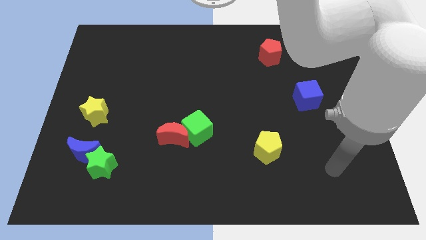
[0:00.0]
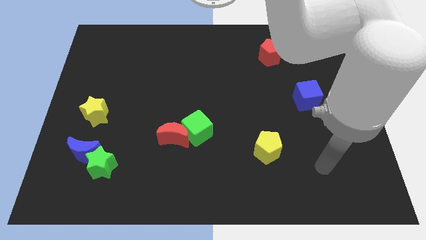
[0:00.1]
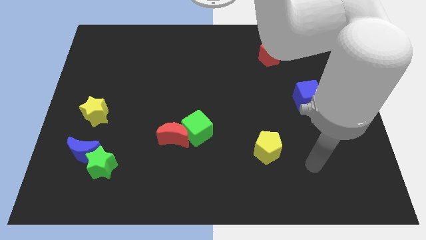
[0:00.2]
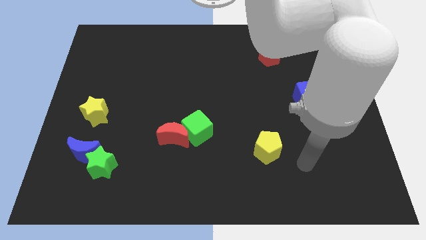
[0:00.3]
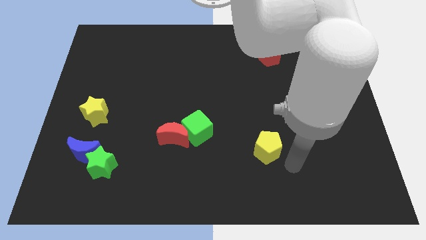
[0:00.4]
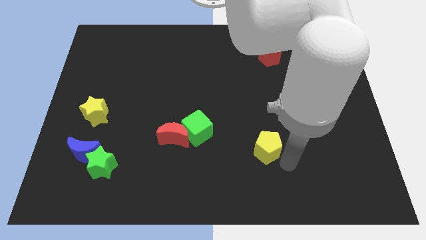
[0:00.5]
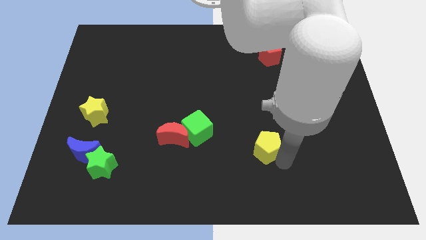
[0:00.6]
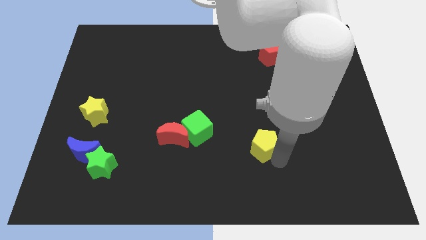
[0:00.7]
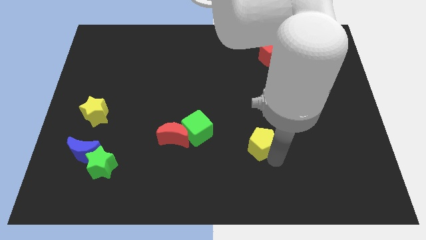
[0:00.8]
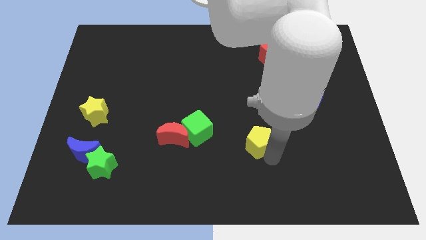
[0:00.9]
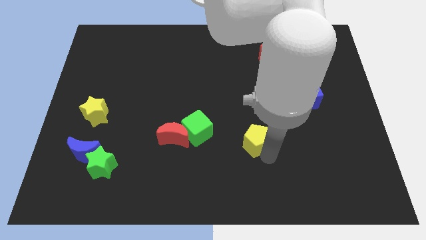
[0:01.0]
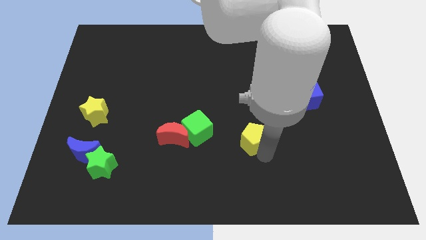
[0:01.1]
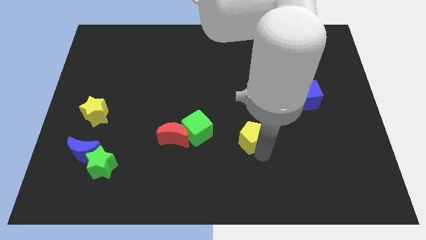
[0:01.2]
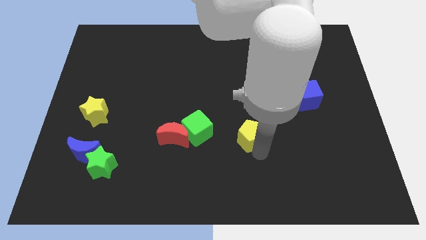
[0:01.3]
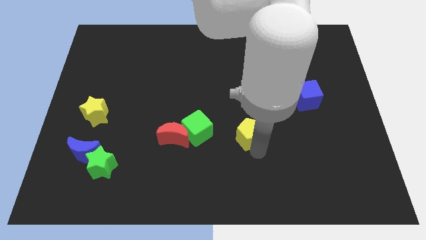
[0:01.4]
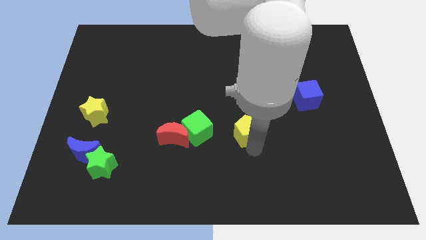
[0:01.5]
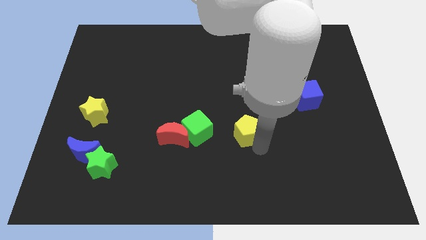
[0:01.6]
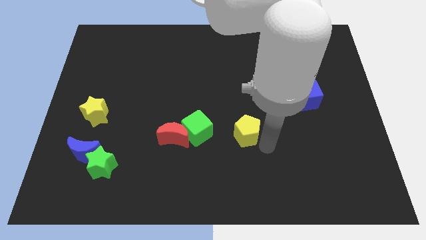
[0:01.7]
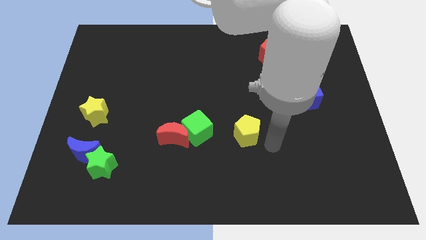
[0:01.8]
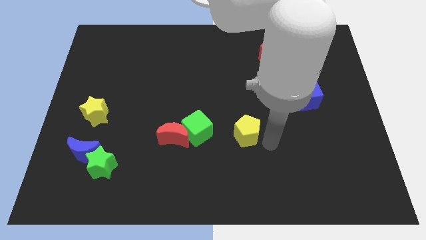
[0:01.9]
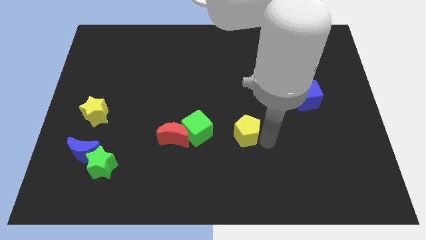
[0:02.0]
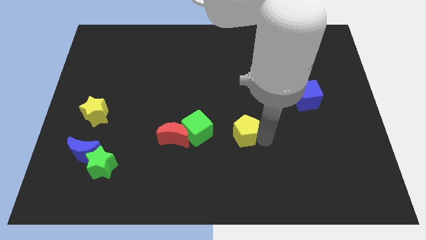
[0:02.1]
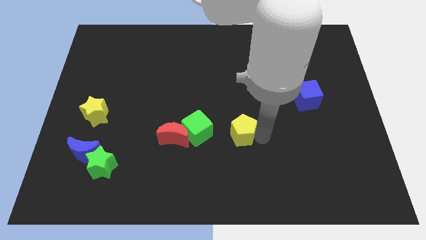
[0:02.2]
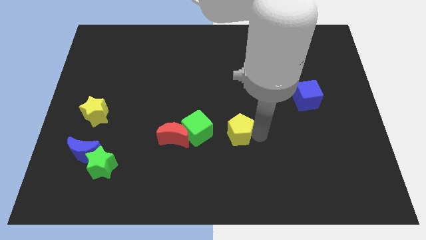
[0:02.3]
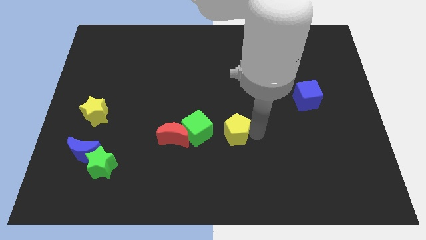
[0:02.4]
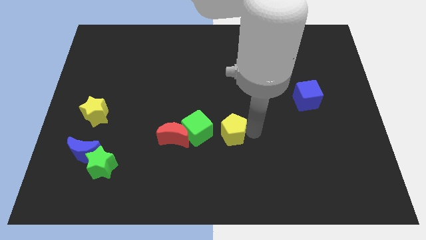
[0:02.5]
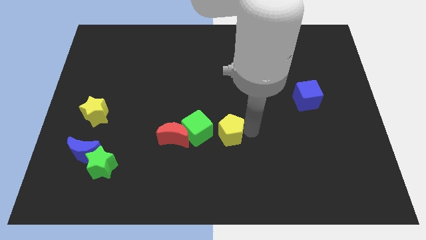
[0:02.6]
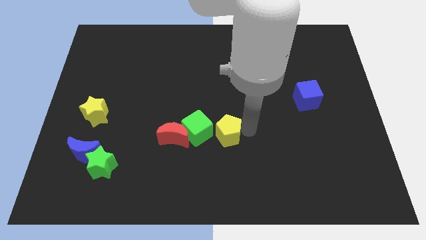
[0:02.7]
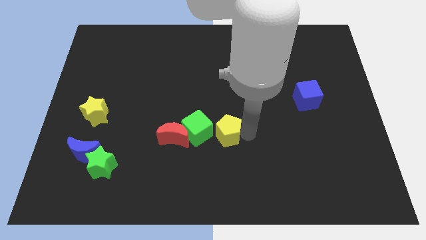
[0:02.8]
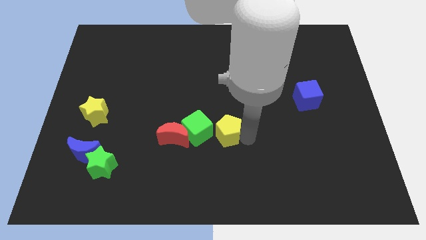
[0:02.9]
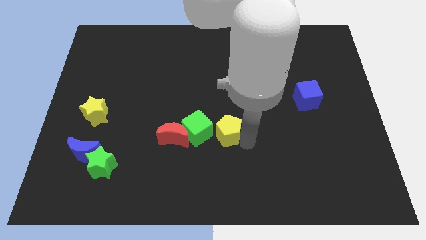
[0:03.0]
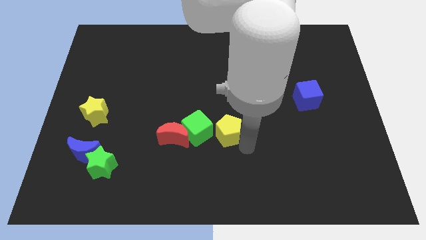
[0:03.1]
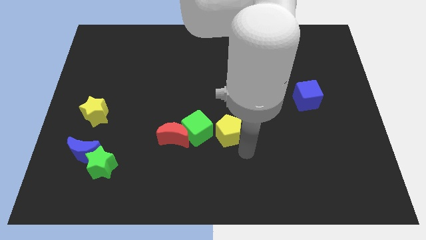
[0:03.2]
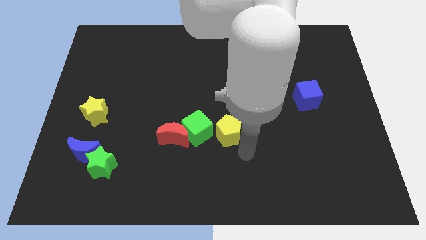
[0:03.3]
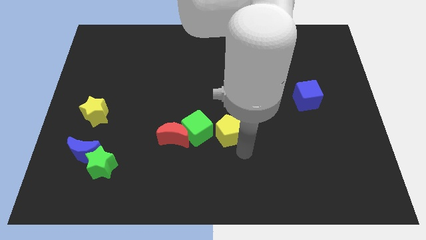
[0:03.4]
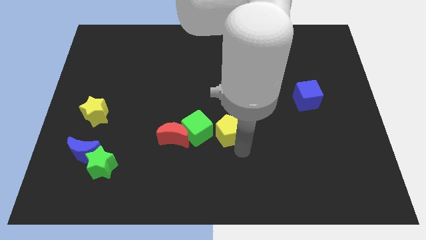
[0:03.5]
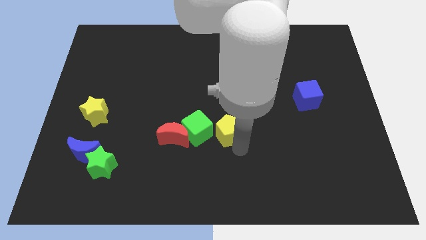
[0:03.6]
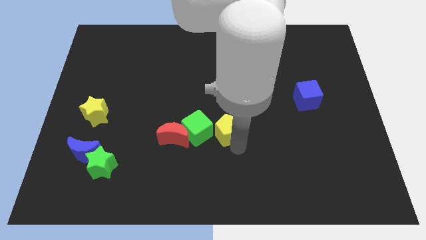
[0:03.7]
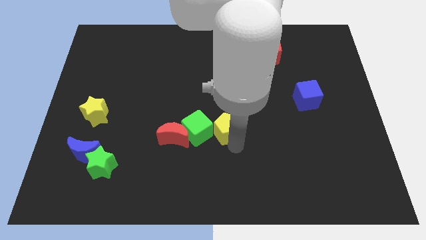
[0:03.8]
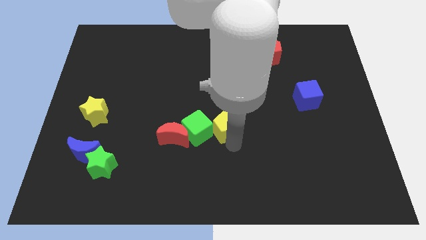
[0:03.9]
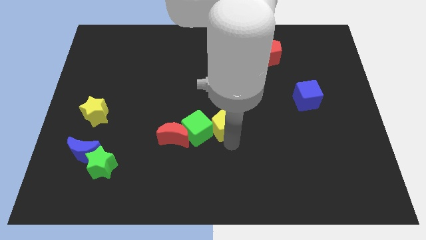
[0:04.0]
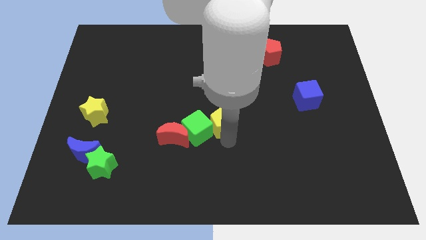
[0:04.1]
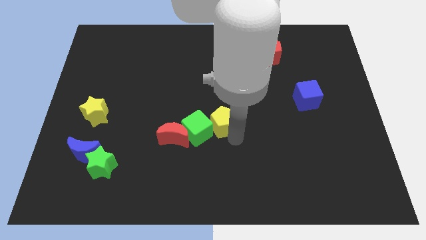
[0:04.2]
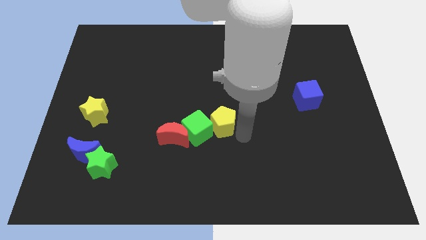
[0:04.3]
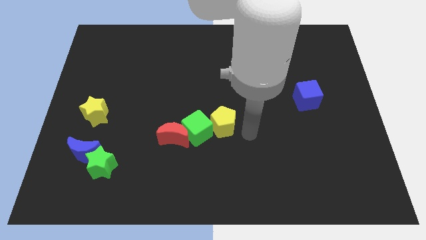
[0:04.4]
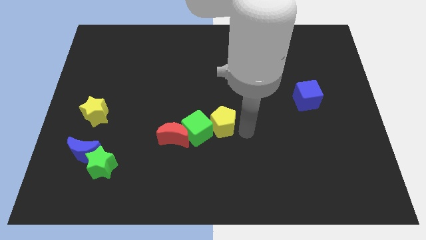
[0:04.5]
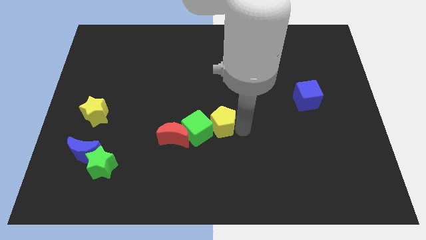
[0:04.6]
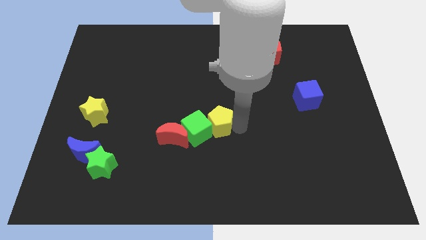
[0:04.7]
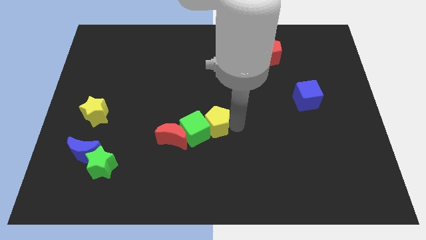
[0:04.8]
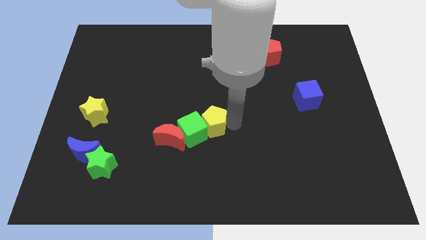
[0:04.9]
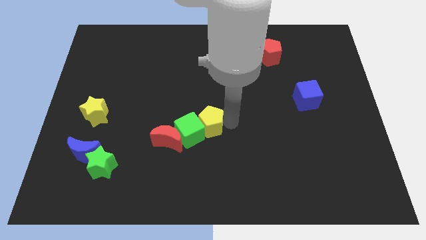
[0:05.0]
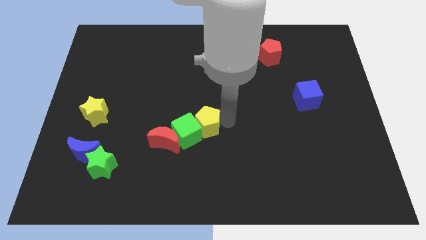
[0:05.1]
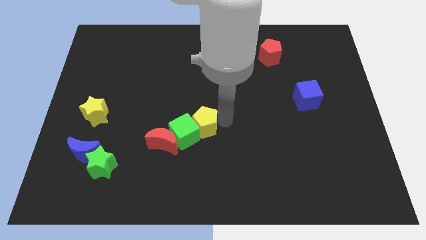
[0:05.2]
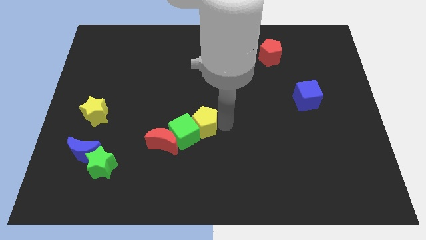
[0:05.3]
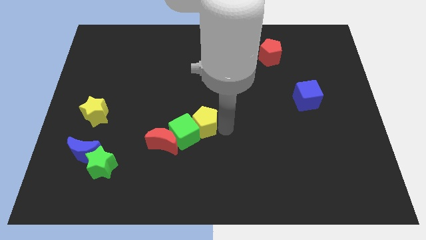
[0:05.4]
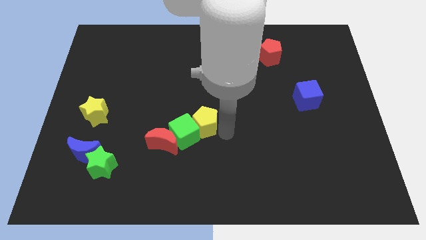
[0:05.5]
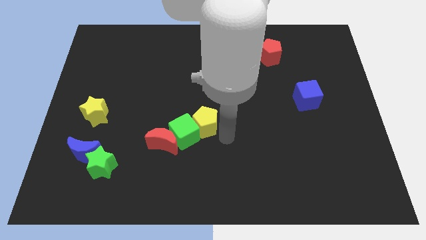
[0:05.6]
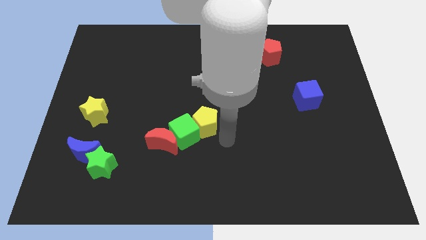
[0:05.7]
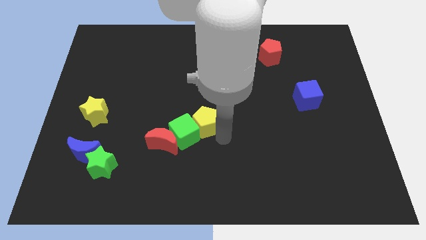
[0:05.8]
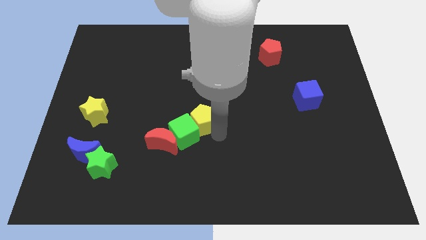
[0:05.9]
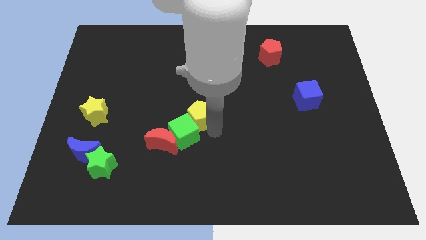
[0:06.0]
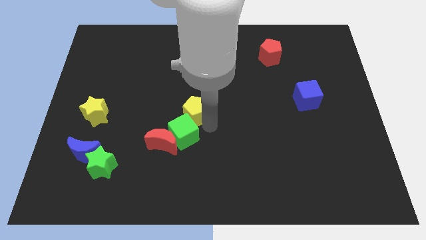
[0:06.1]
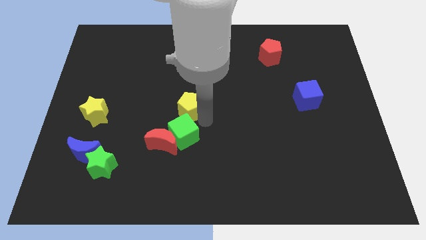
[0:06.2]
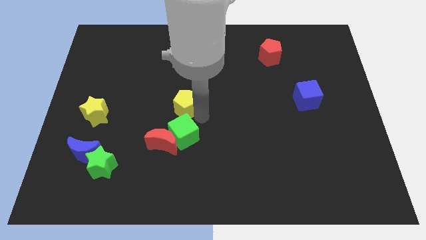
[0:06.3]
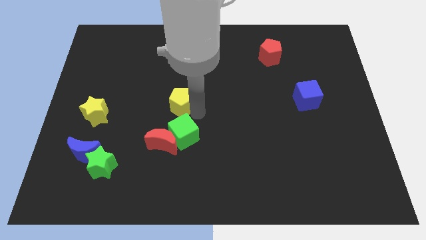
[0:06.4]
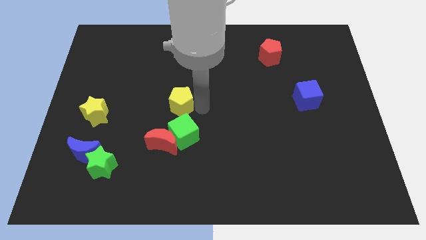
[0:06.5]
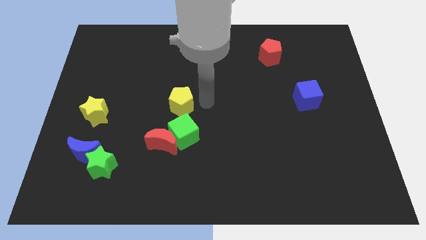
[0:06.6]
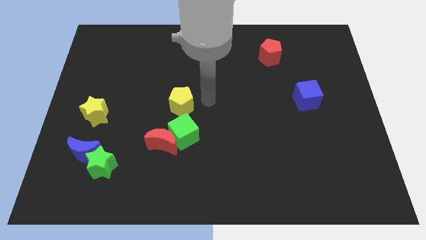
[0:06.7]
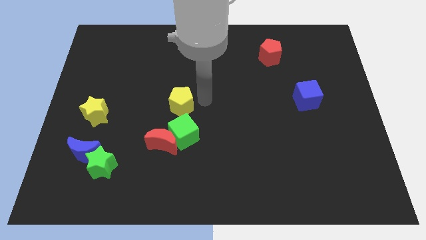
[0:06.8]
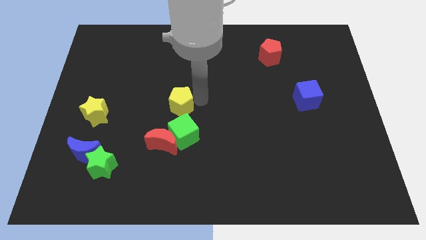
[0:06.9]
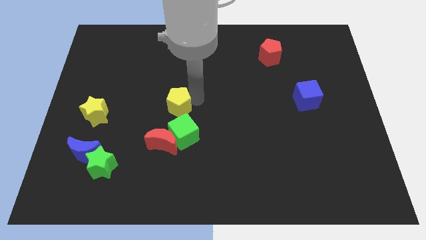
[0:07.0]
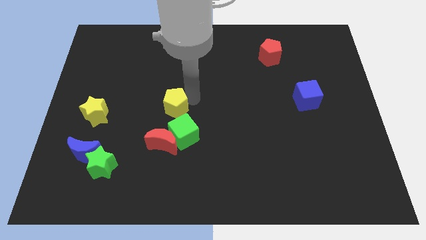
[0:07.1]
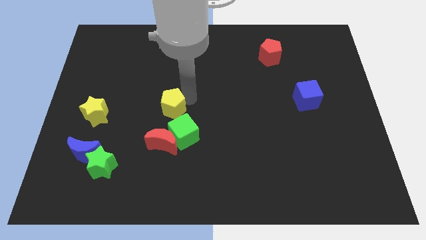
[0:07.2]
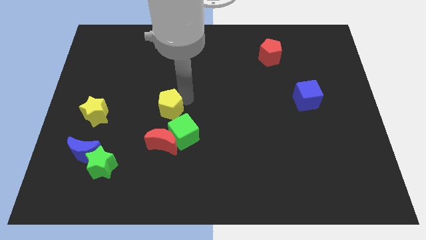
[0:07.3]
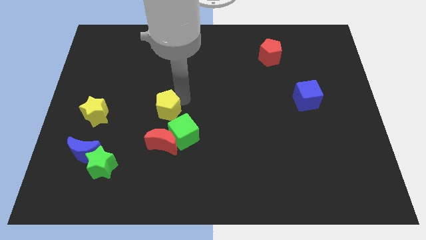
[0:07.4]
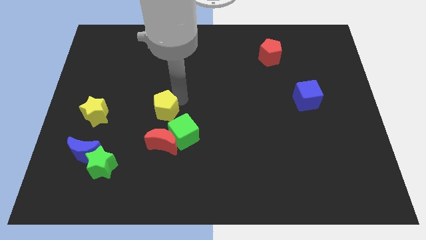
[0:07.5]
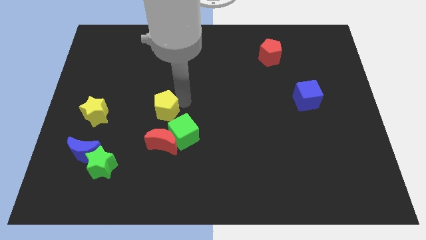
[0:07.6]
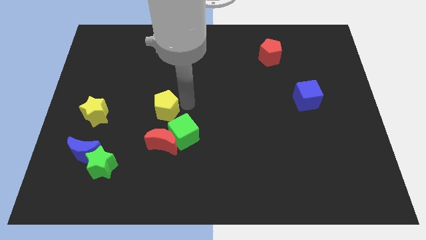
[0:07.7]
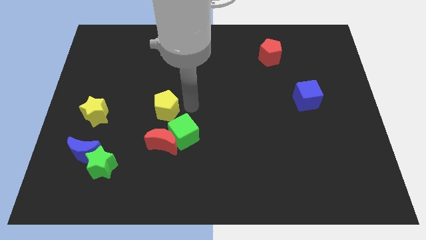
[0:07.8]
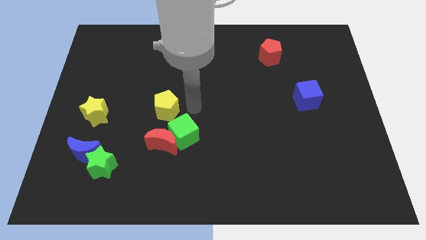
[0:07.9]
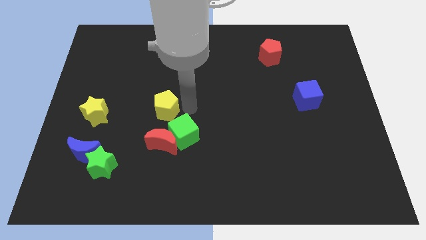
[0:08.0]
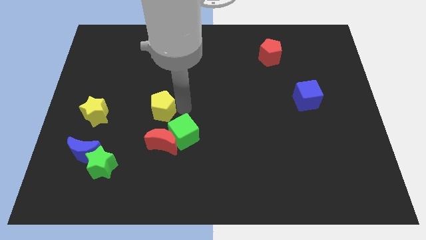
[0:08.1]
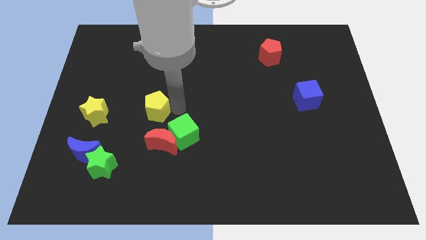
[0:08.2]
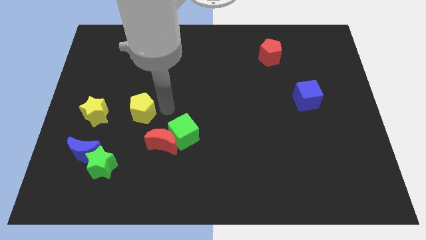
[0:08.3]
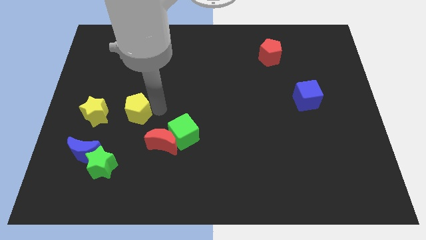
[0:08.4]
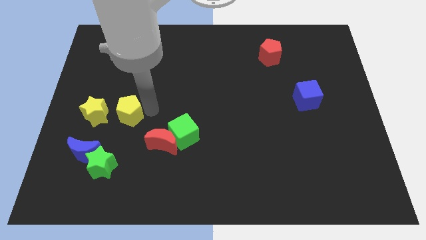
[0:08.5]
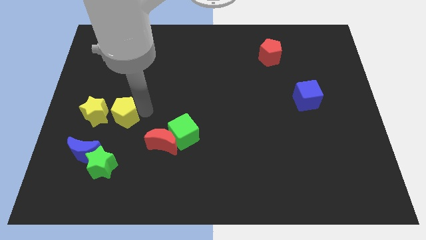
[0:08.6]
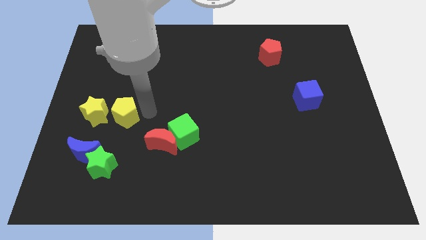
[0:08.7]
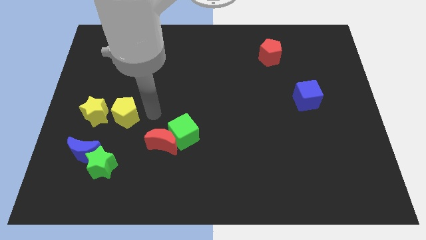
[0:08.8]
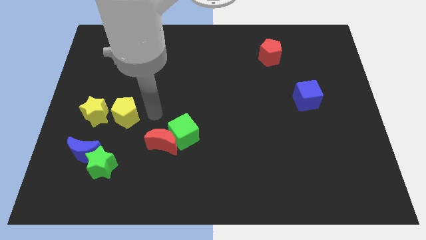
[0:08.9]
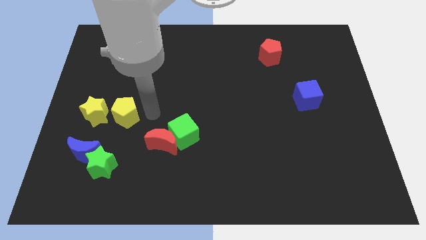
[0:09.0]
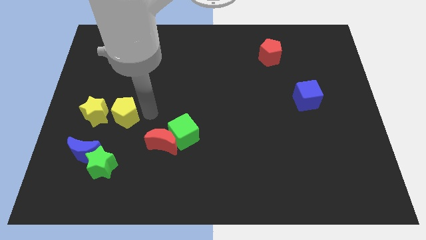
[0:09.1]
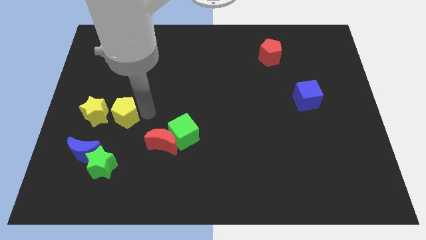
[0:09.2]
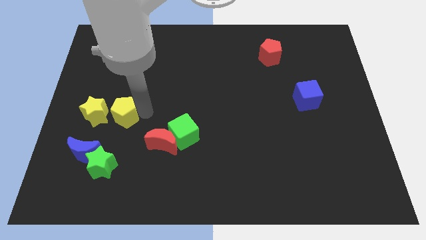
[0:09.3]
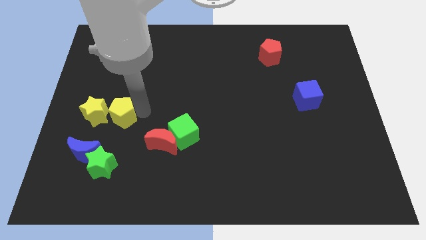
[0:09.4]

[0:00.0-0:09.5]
move the yellow pentagon next to the yellow star
